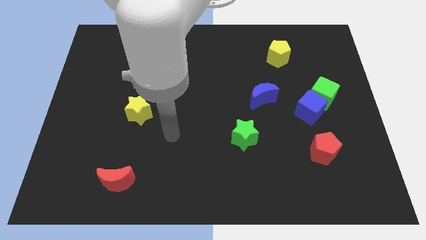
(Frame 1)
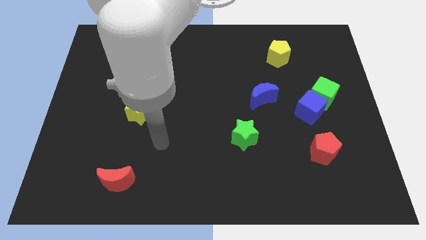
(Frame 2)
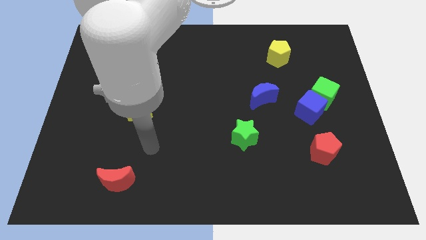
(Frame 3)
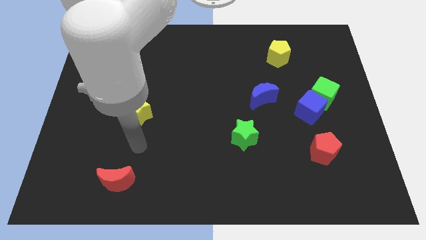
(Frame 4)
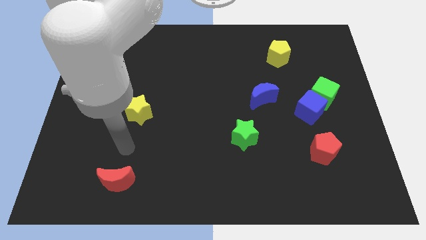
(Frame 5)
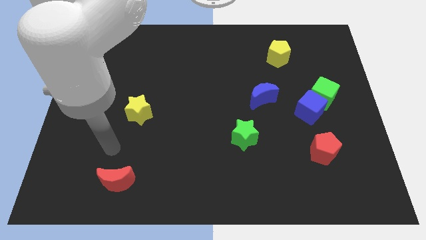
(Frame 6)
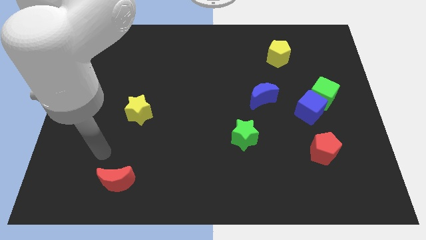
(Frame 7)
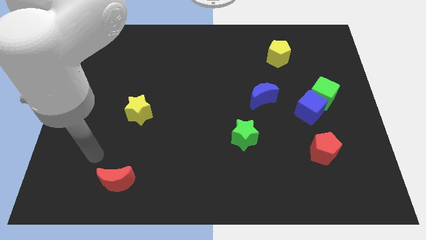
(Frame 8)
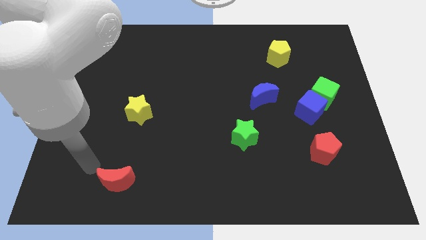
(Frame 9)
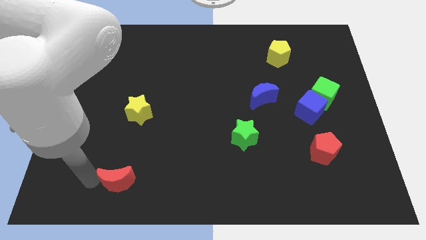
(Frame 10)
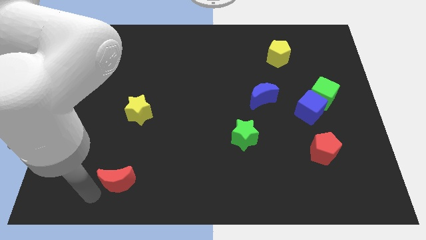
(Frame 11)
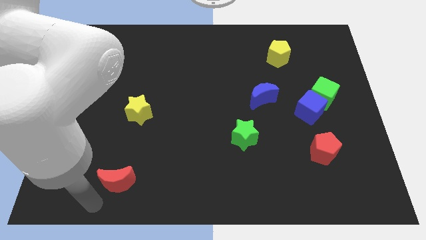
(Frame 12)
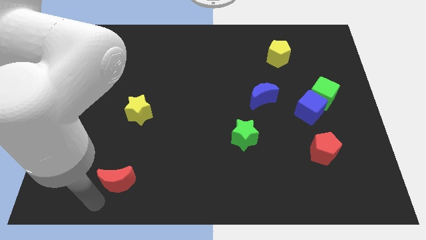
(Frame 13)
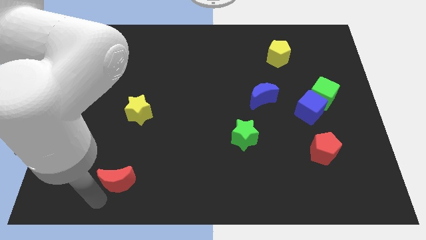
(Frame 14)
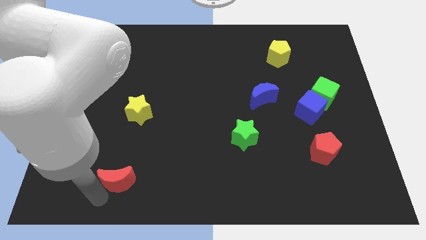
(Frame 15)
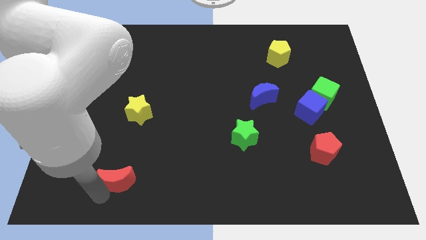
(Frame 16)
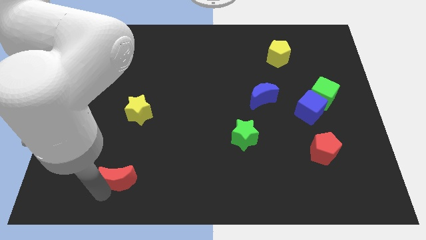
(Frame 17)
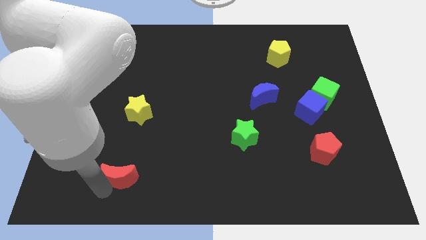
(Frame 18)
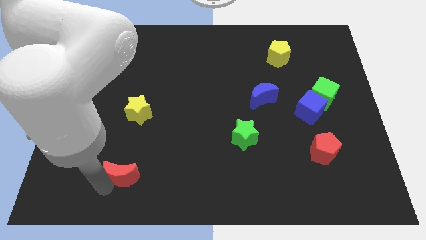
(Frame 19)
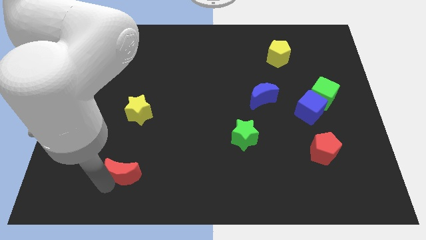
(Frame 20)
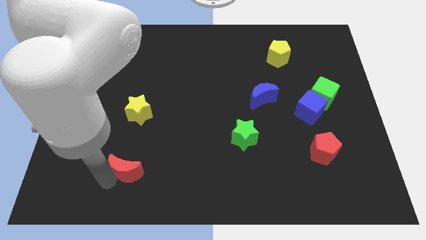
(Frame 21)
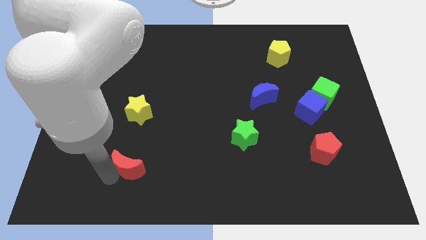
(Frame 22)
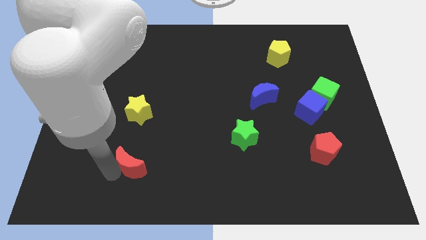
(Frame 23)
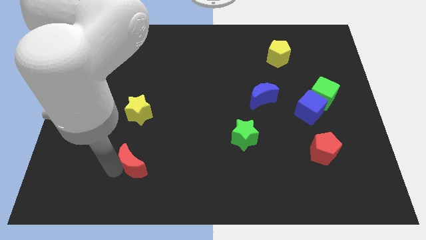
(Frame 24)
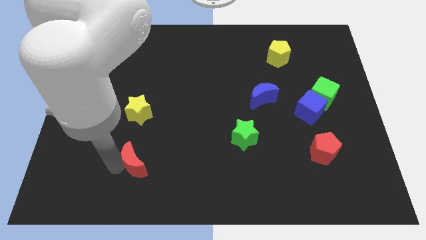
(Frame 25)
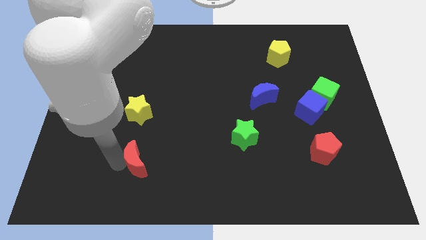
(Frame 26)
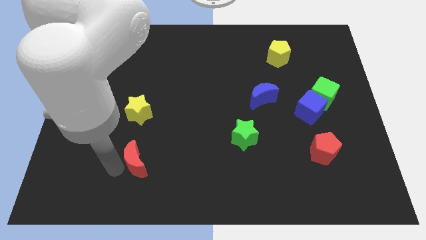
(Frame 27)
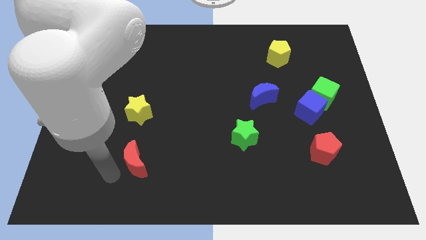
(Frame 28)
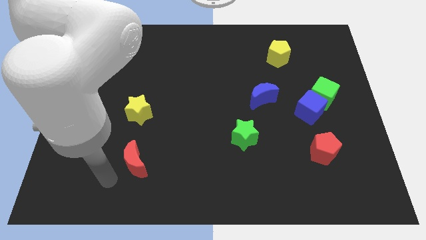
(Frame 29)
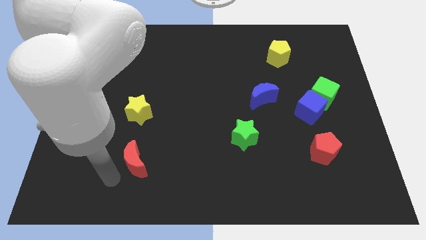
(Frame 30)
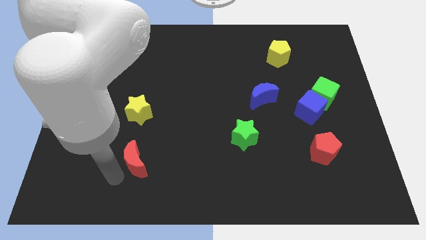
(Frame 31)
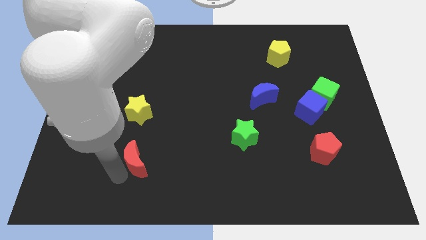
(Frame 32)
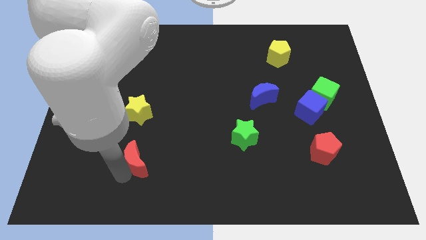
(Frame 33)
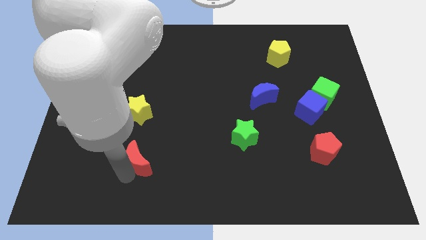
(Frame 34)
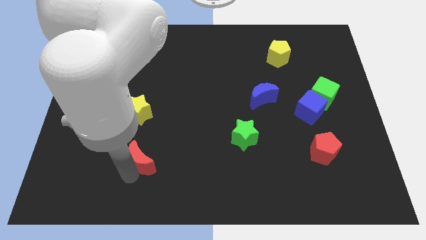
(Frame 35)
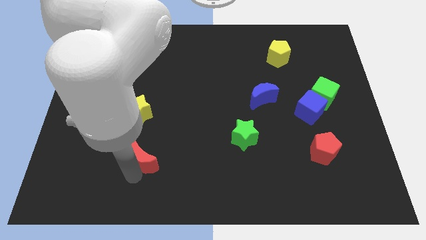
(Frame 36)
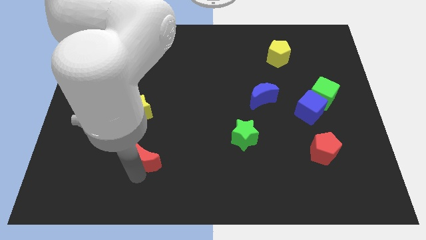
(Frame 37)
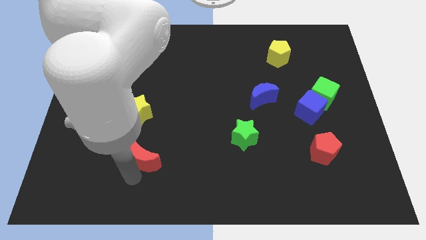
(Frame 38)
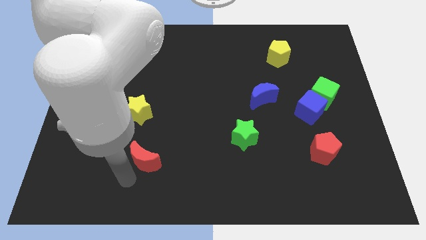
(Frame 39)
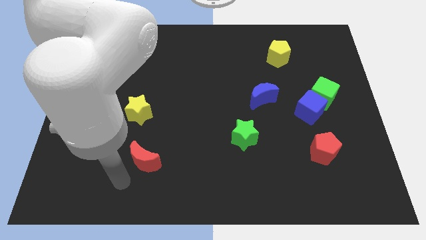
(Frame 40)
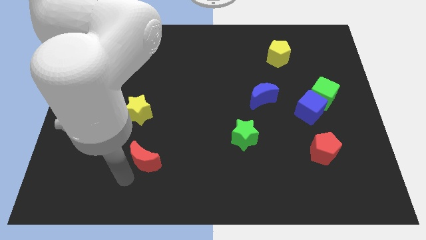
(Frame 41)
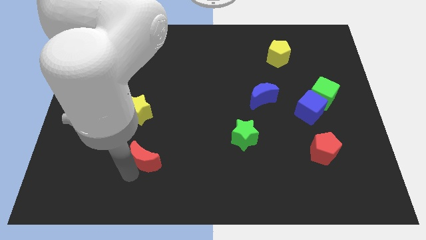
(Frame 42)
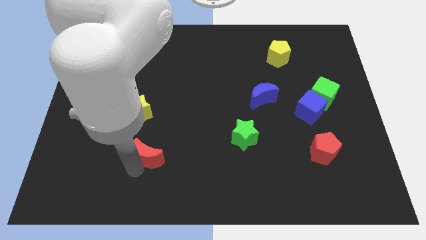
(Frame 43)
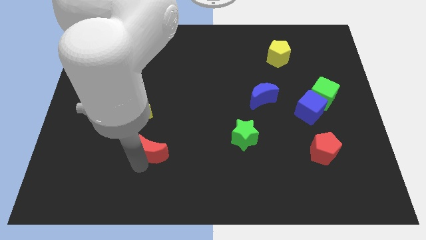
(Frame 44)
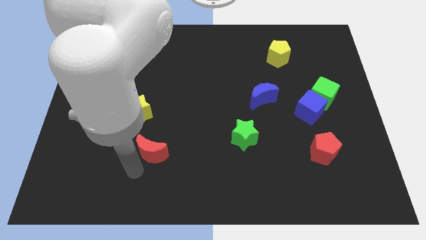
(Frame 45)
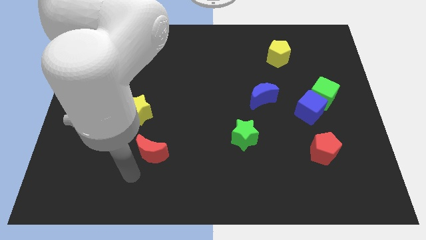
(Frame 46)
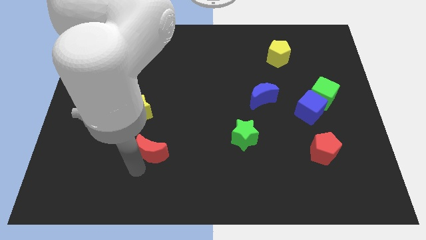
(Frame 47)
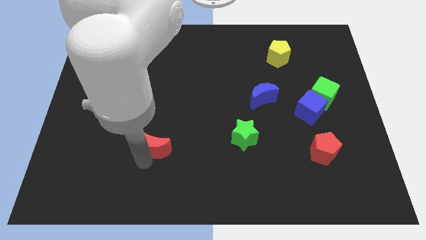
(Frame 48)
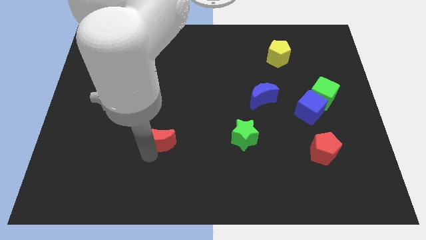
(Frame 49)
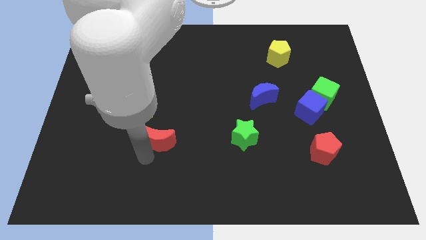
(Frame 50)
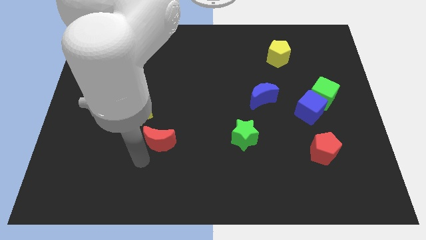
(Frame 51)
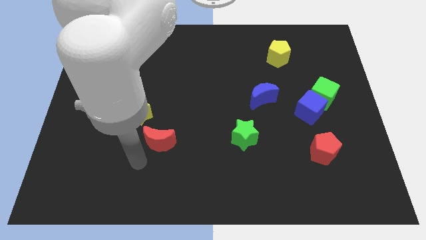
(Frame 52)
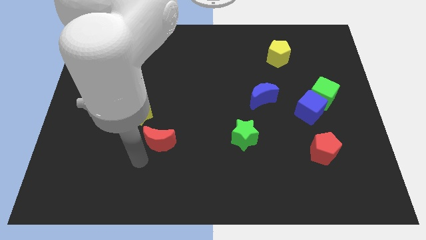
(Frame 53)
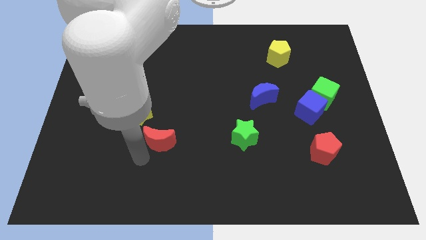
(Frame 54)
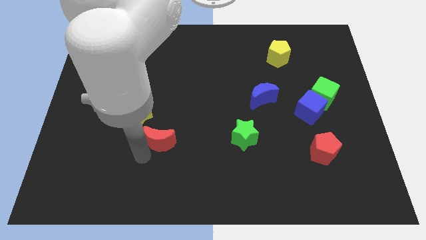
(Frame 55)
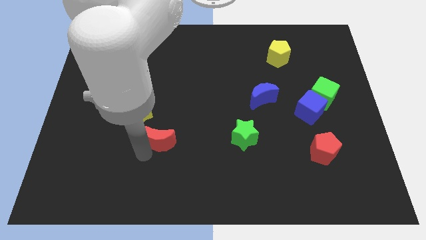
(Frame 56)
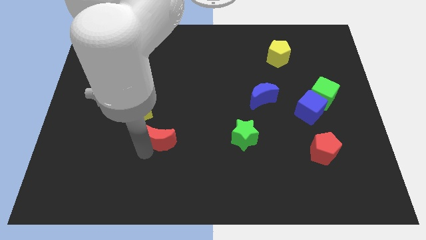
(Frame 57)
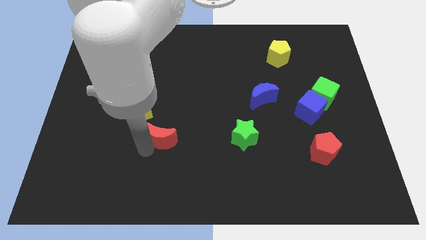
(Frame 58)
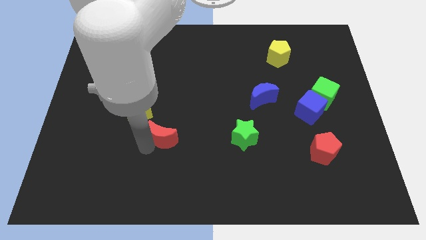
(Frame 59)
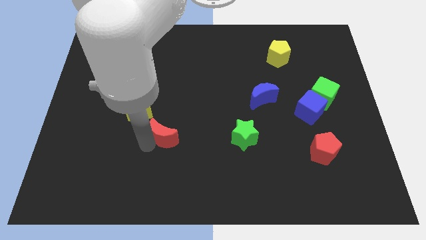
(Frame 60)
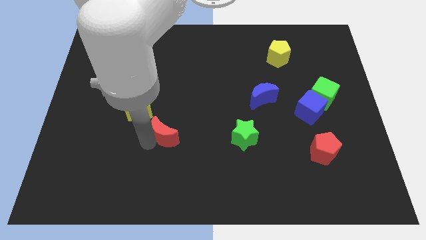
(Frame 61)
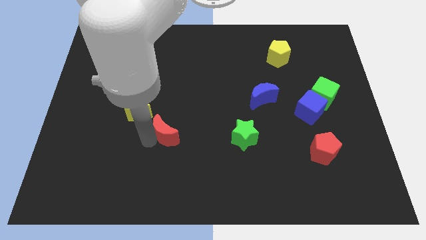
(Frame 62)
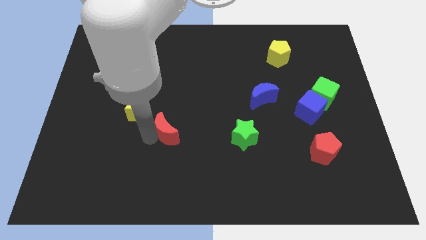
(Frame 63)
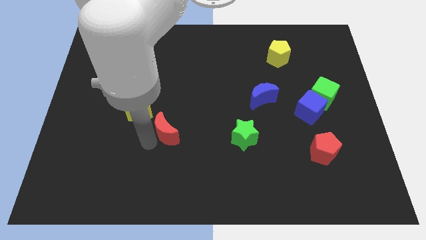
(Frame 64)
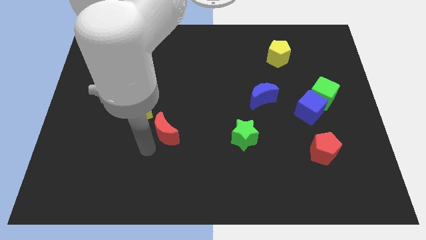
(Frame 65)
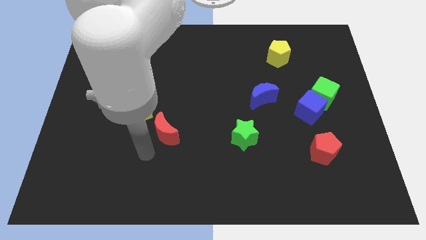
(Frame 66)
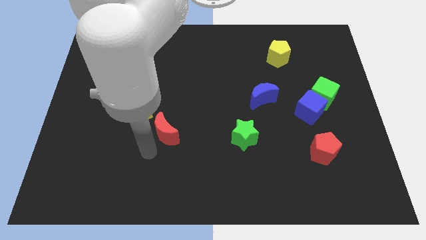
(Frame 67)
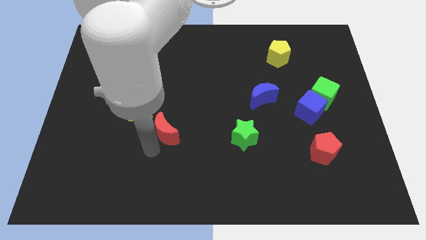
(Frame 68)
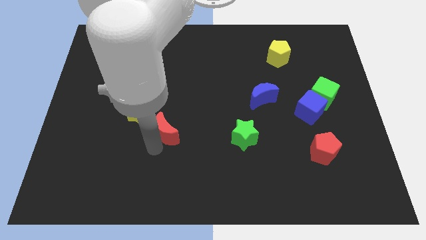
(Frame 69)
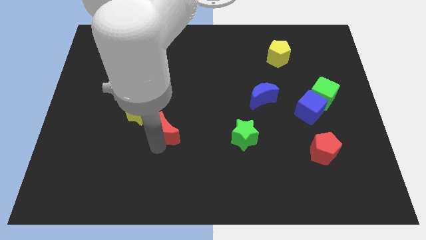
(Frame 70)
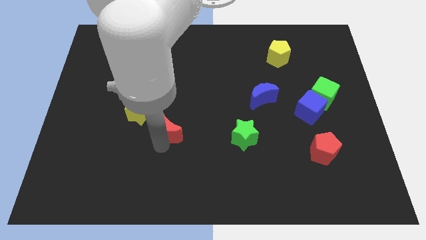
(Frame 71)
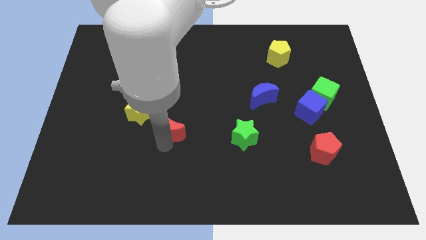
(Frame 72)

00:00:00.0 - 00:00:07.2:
put the red moon just right of the yellow star
